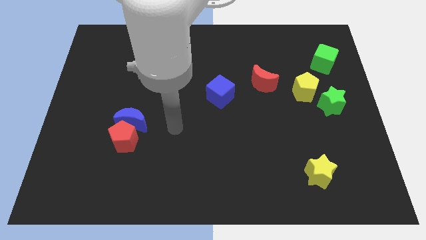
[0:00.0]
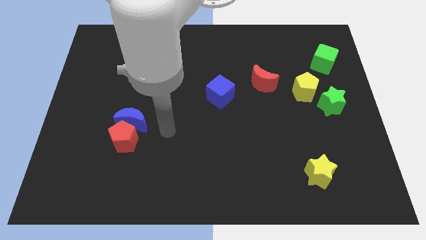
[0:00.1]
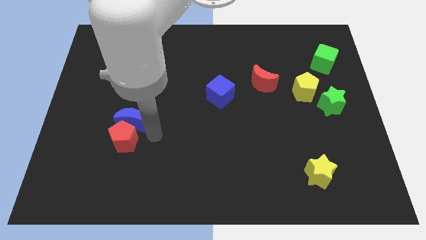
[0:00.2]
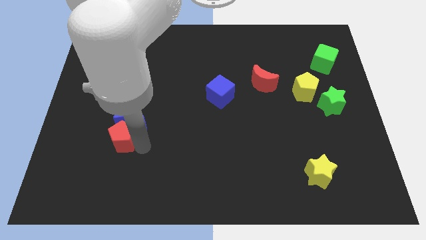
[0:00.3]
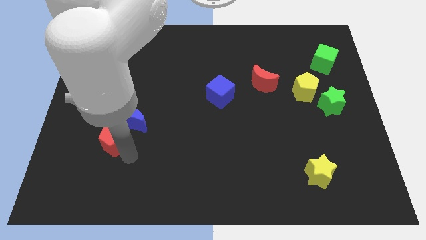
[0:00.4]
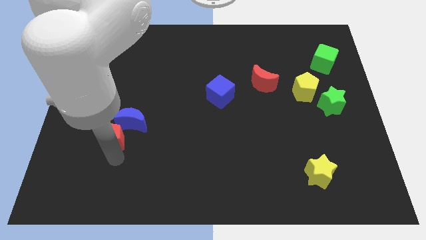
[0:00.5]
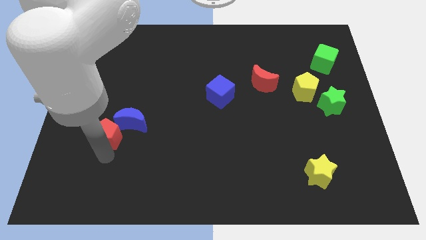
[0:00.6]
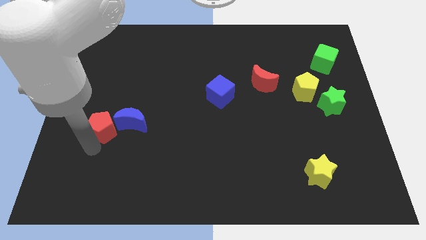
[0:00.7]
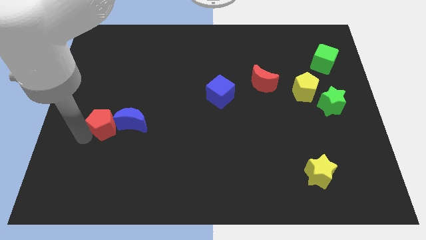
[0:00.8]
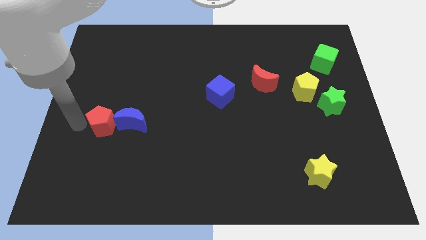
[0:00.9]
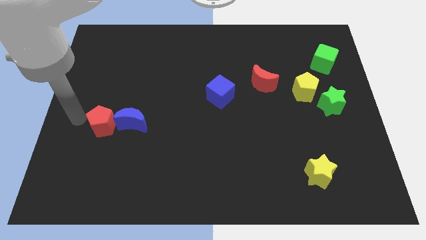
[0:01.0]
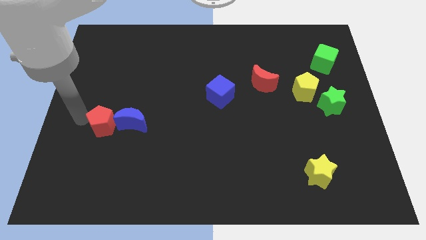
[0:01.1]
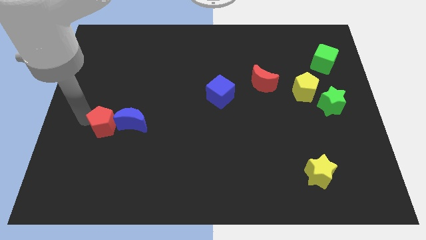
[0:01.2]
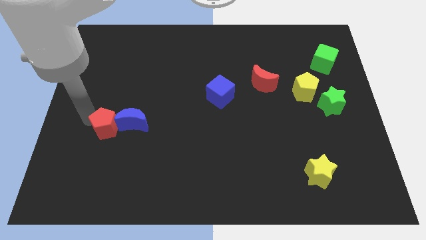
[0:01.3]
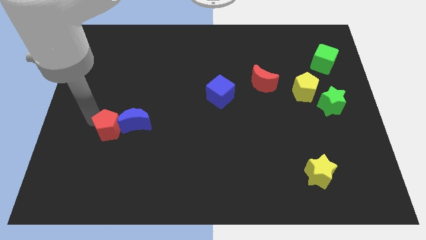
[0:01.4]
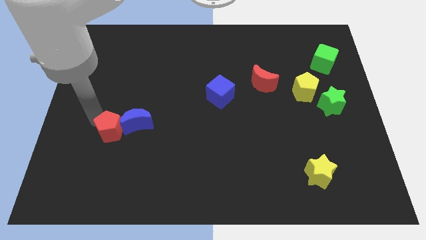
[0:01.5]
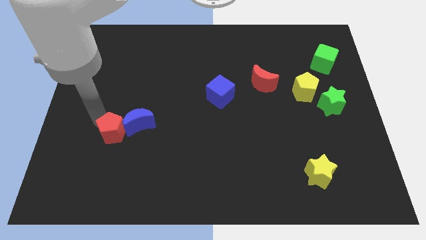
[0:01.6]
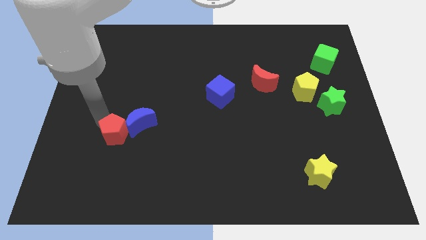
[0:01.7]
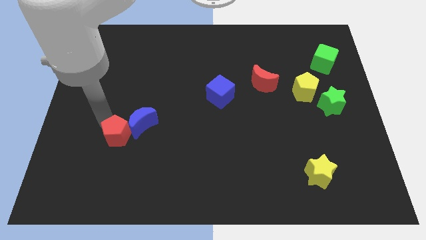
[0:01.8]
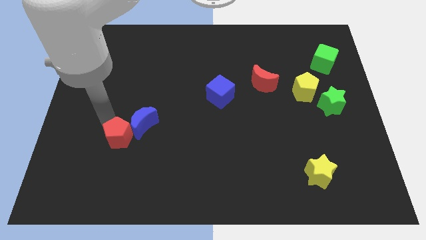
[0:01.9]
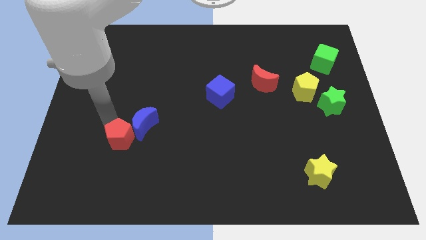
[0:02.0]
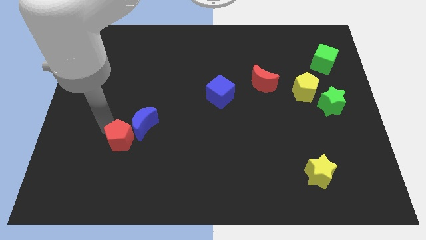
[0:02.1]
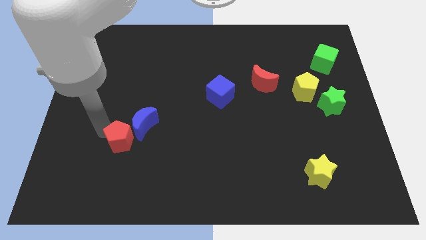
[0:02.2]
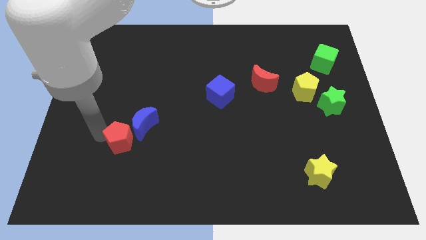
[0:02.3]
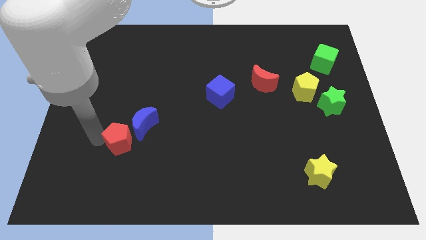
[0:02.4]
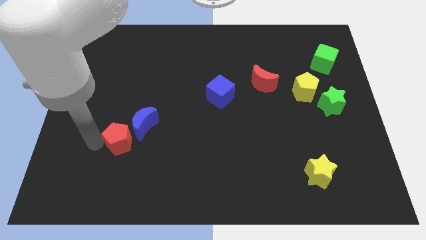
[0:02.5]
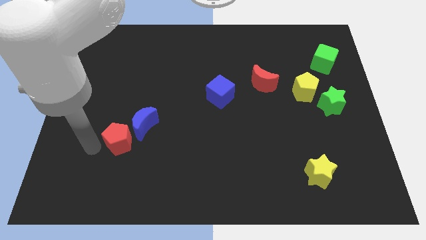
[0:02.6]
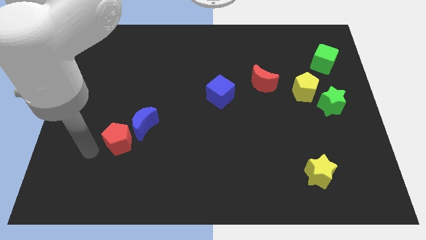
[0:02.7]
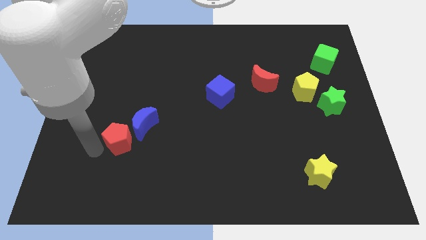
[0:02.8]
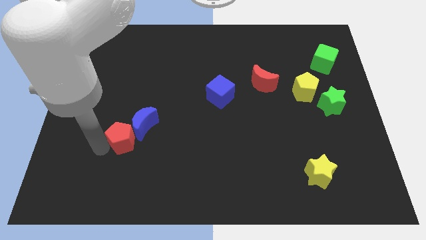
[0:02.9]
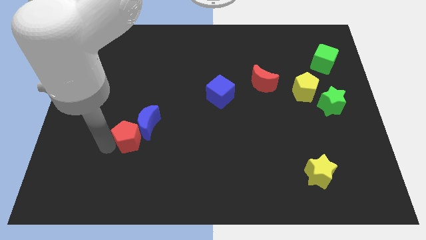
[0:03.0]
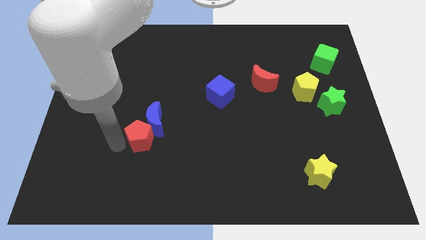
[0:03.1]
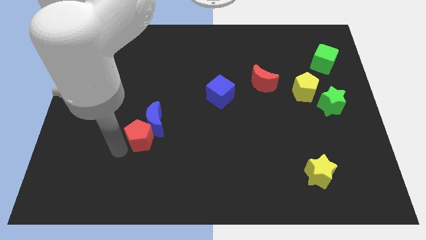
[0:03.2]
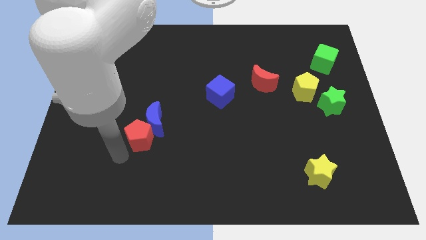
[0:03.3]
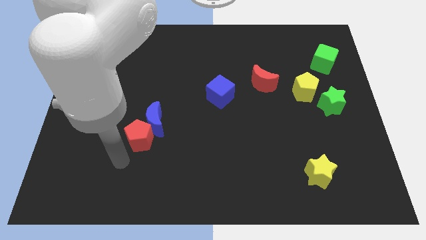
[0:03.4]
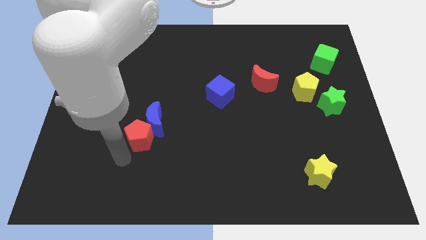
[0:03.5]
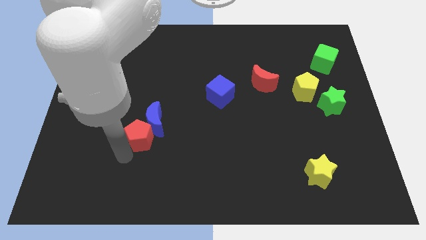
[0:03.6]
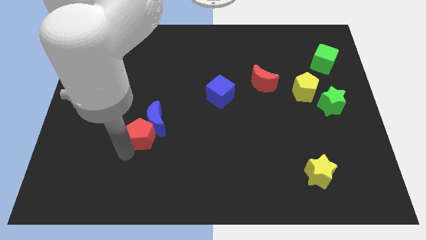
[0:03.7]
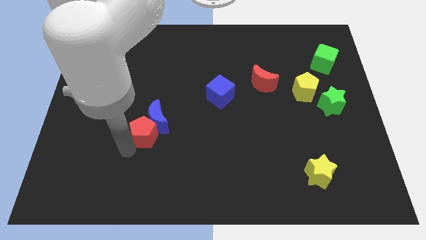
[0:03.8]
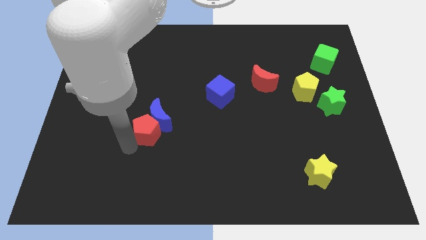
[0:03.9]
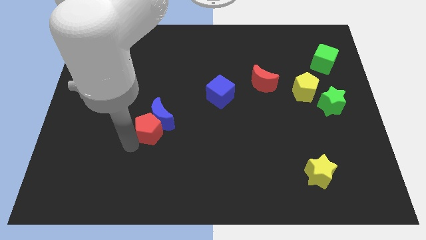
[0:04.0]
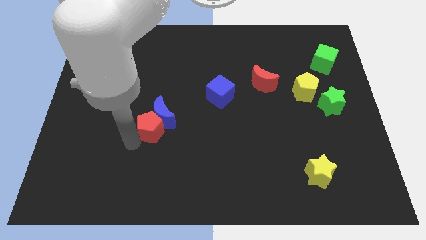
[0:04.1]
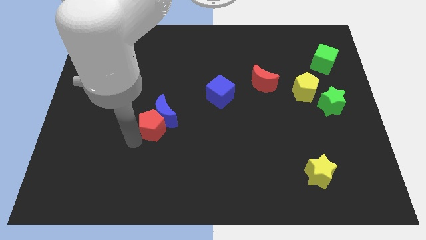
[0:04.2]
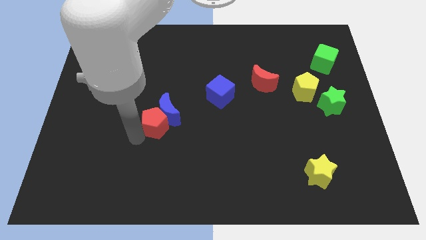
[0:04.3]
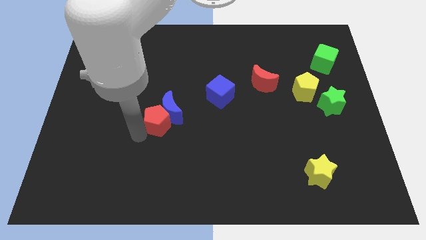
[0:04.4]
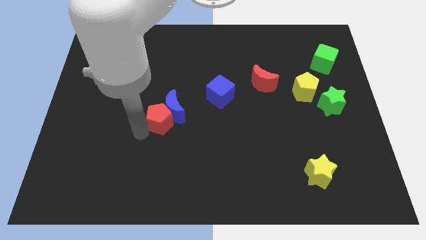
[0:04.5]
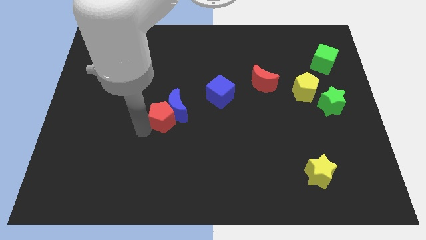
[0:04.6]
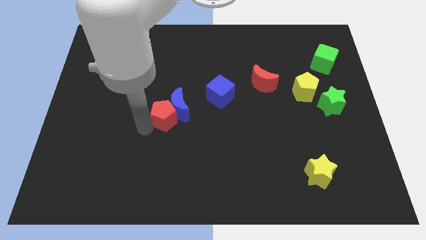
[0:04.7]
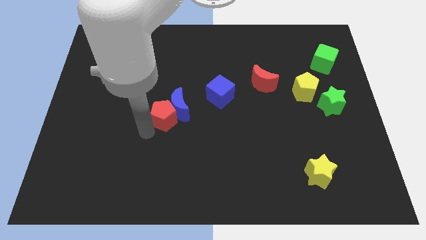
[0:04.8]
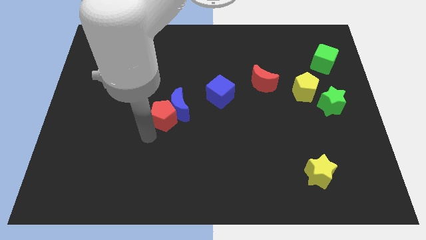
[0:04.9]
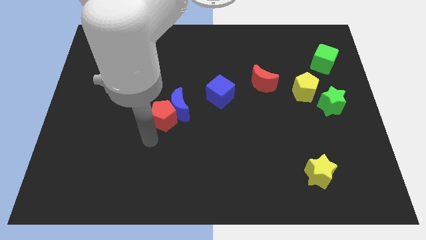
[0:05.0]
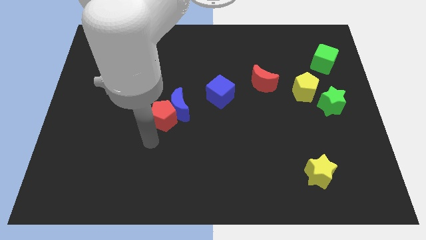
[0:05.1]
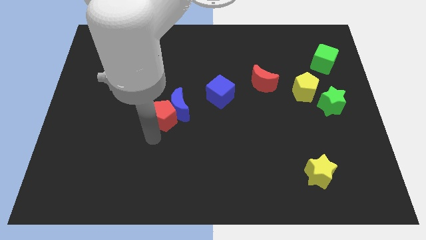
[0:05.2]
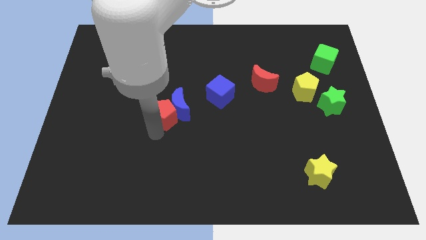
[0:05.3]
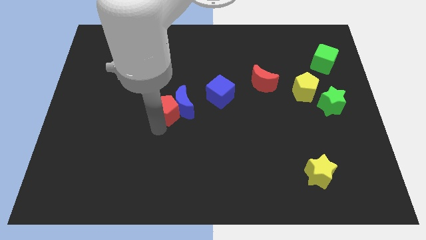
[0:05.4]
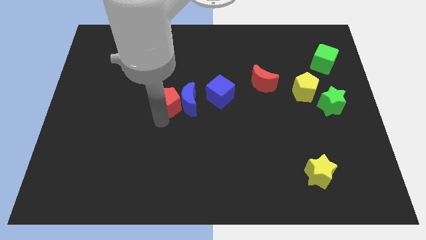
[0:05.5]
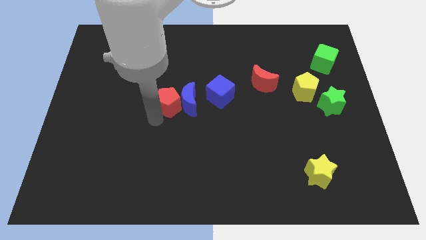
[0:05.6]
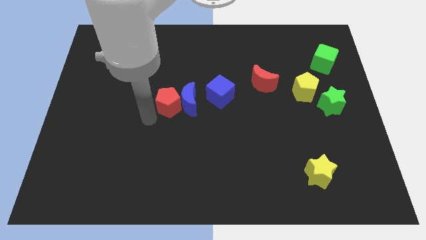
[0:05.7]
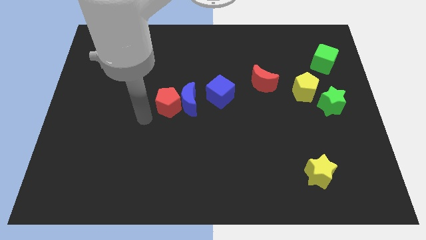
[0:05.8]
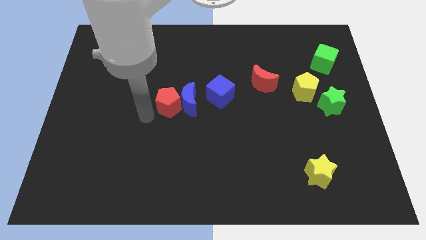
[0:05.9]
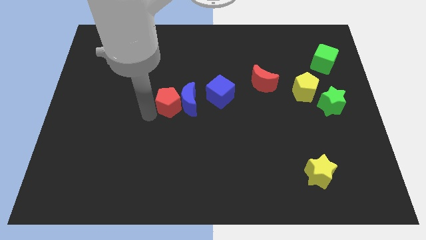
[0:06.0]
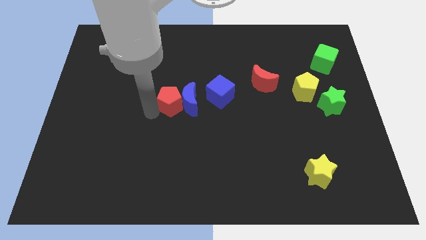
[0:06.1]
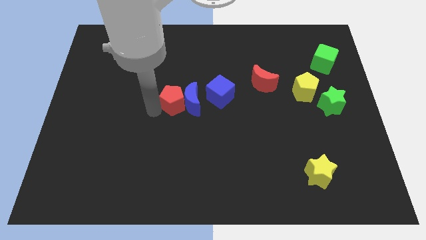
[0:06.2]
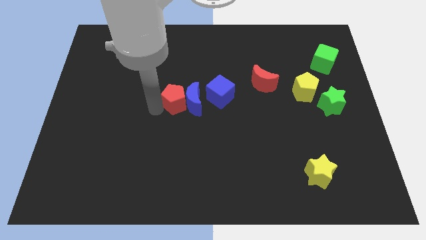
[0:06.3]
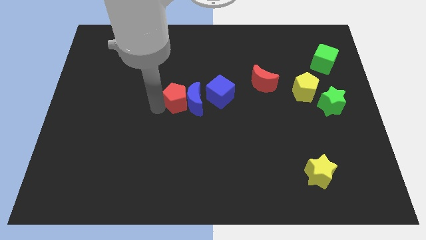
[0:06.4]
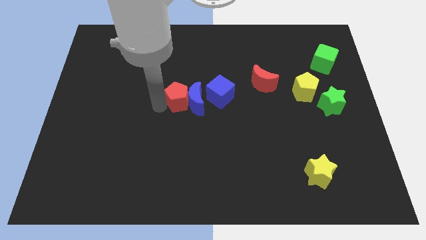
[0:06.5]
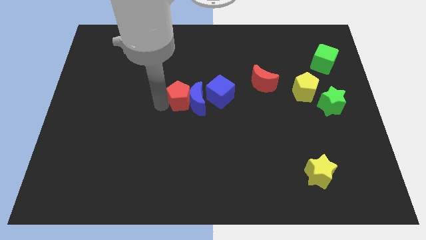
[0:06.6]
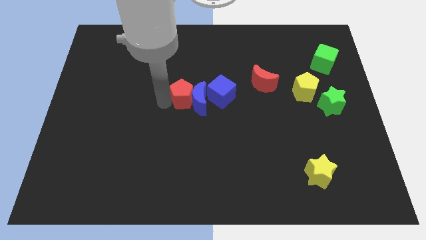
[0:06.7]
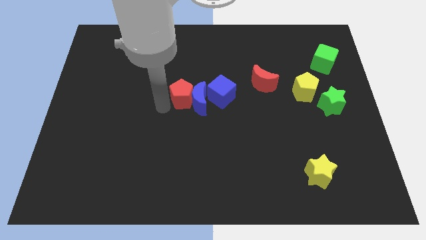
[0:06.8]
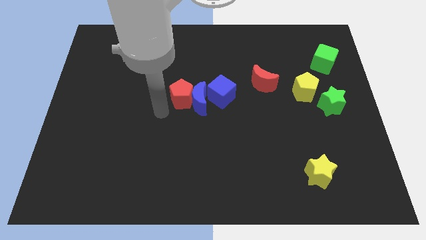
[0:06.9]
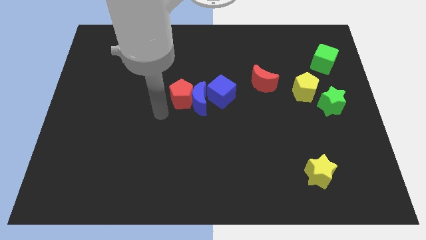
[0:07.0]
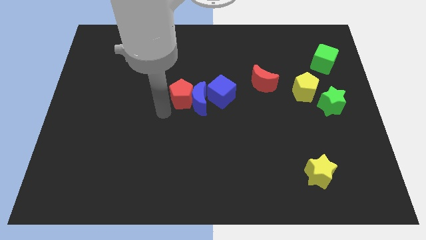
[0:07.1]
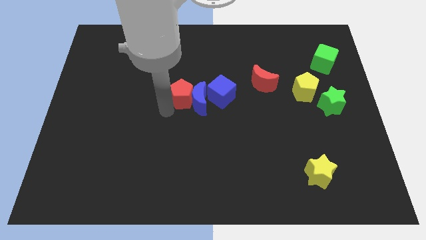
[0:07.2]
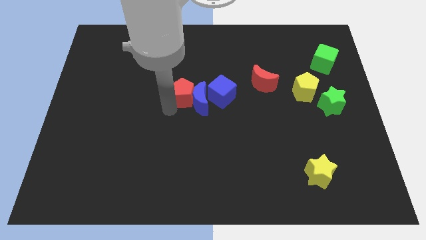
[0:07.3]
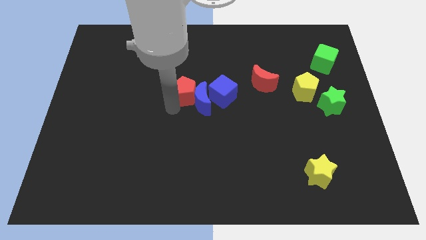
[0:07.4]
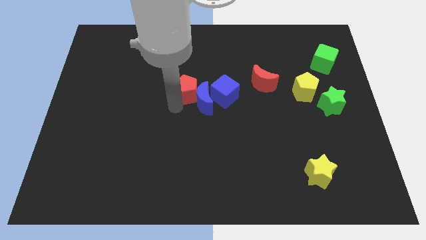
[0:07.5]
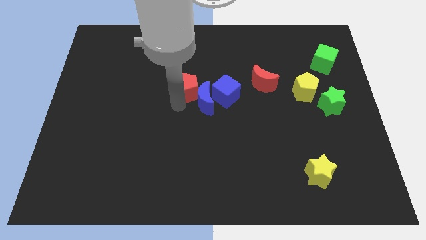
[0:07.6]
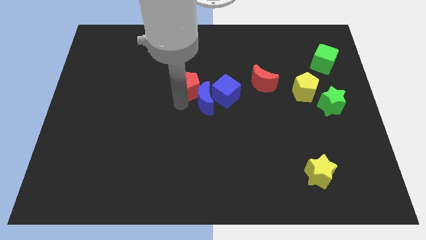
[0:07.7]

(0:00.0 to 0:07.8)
move the red pentagon upwards and then right
